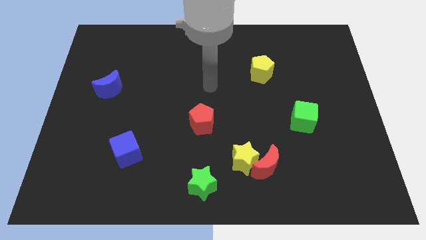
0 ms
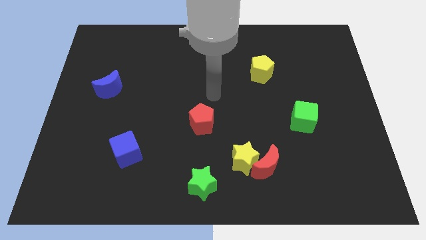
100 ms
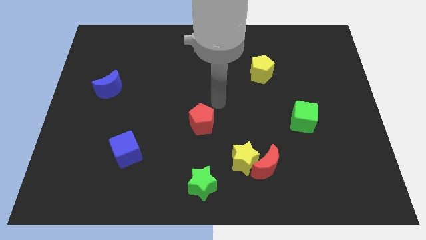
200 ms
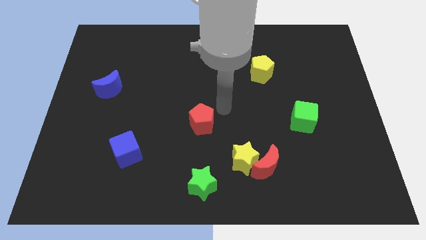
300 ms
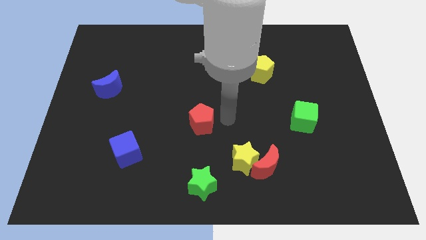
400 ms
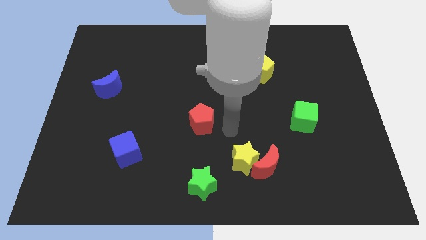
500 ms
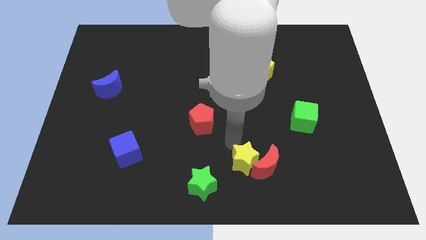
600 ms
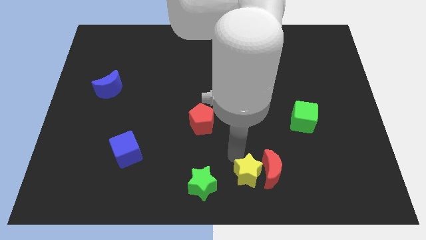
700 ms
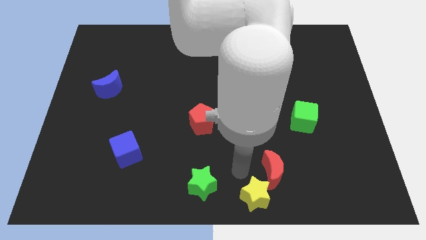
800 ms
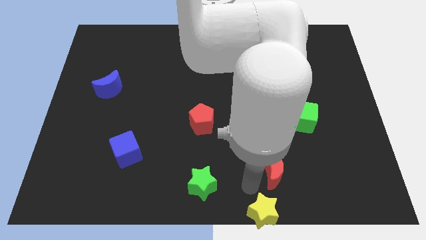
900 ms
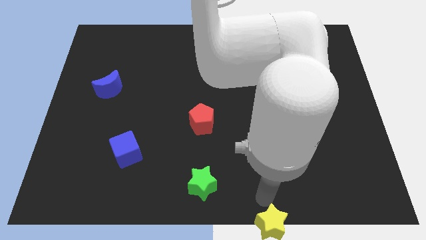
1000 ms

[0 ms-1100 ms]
pull the red moon apart from the yellow star

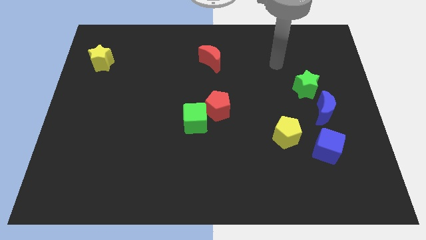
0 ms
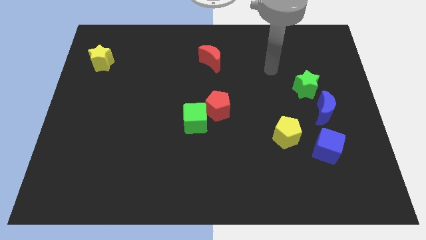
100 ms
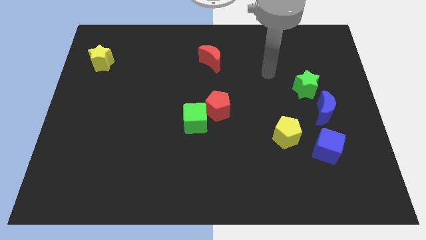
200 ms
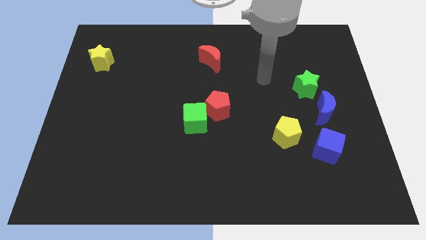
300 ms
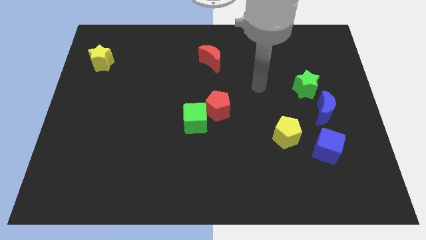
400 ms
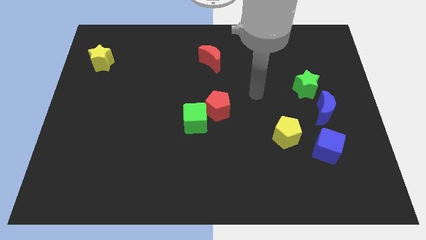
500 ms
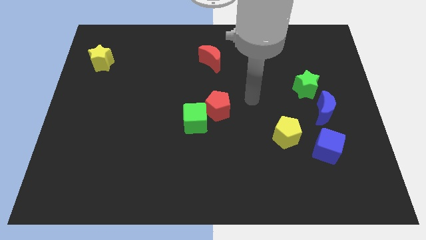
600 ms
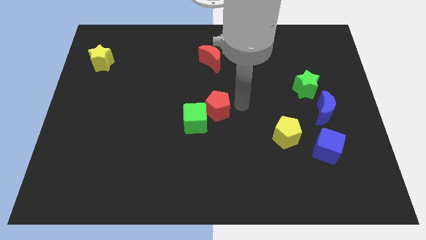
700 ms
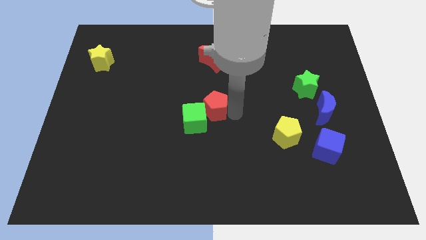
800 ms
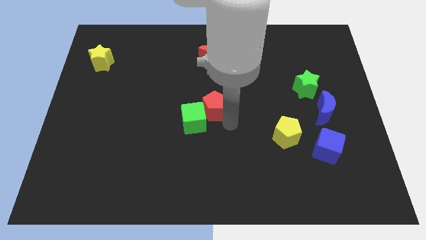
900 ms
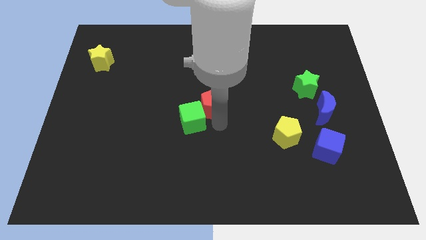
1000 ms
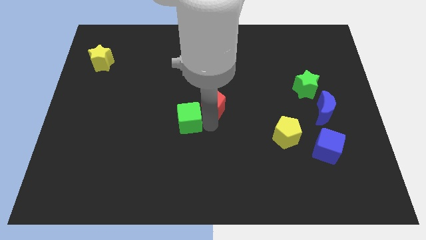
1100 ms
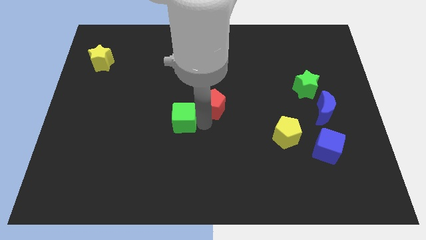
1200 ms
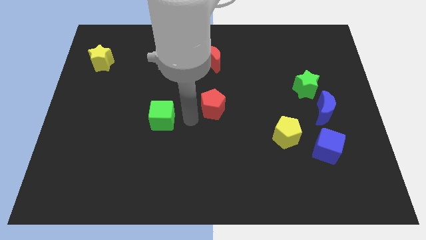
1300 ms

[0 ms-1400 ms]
separate the red pentagon from the green cube

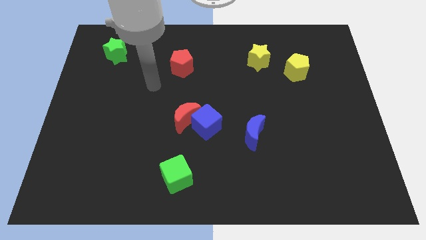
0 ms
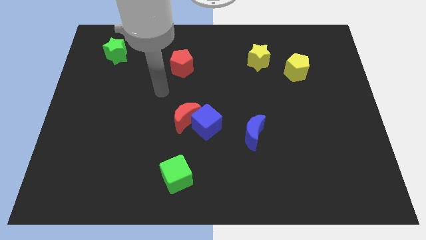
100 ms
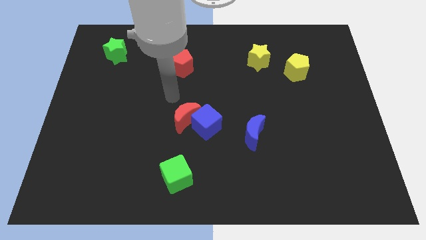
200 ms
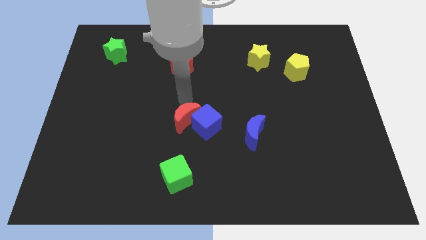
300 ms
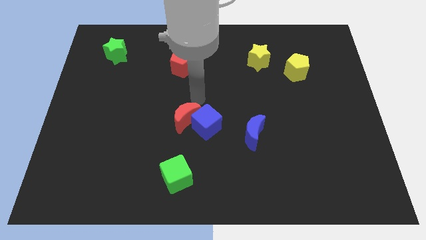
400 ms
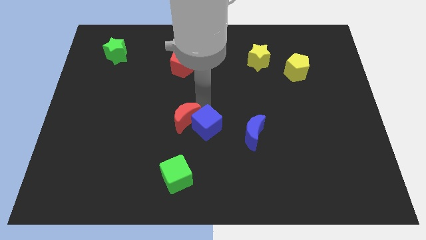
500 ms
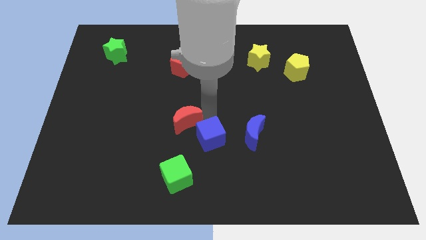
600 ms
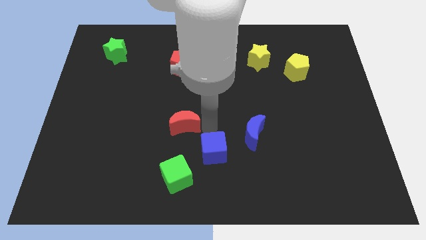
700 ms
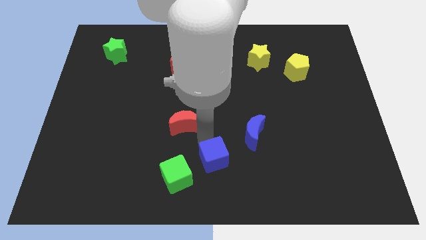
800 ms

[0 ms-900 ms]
pull the red moon apart from the blue cube

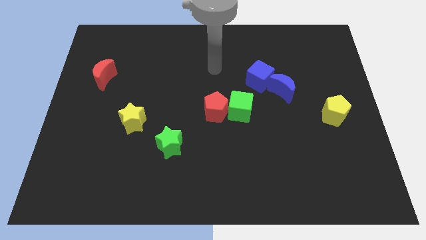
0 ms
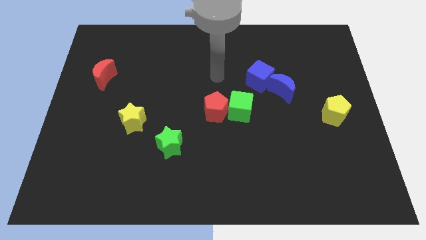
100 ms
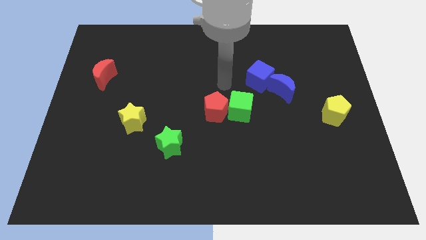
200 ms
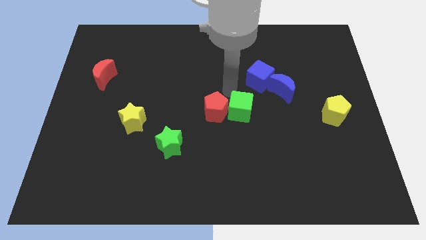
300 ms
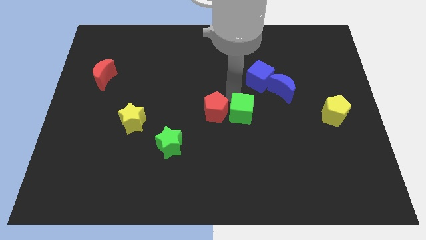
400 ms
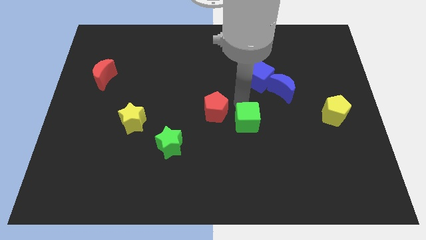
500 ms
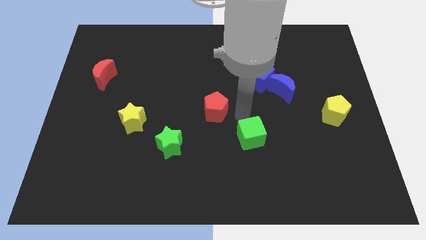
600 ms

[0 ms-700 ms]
move the red pentagon away from the green cube

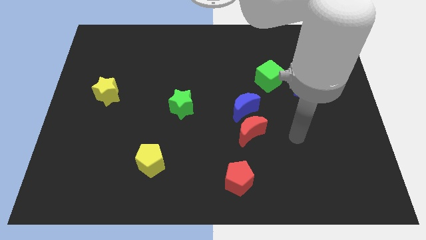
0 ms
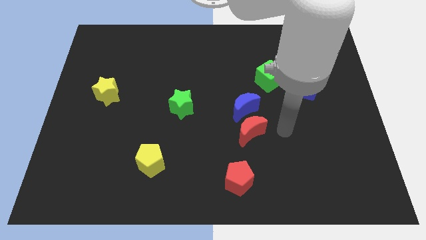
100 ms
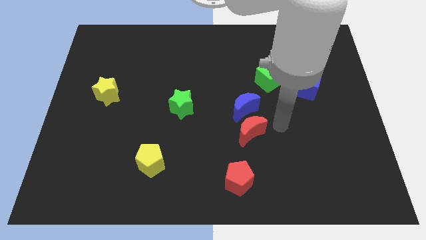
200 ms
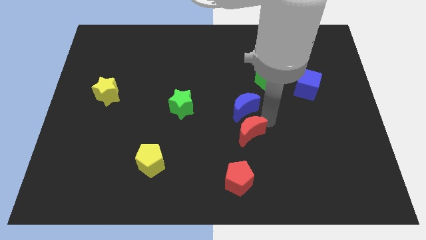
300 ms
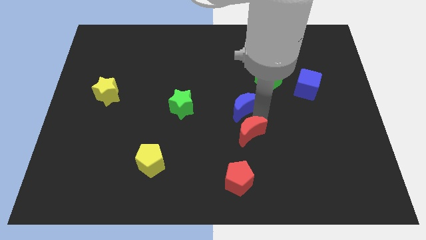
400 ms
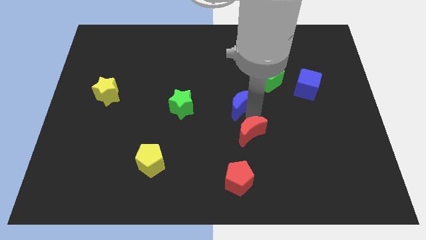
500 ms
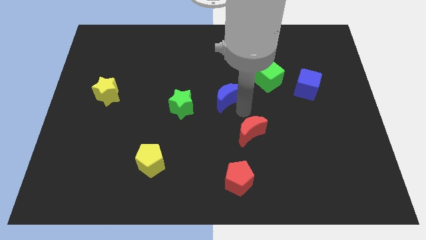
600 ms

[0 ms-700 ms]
separate the red moon from the blue moon

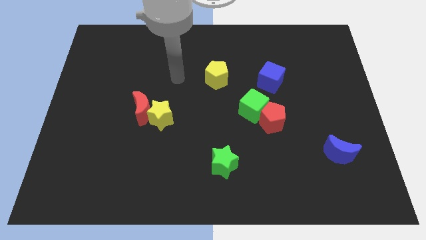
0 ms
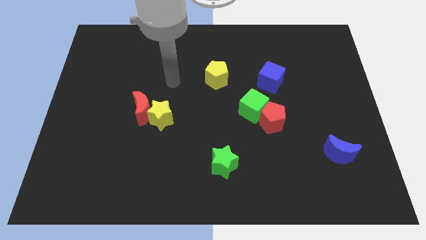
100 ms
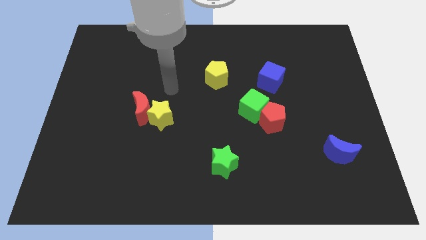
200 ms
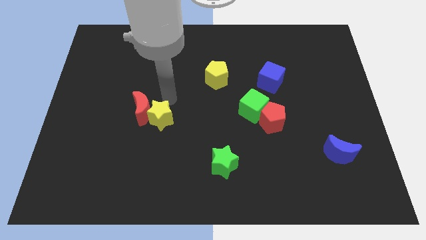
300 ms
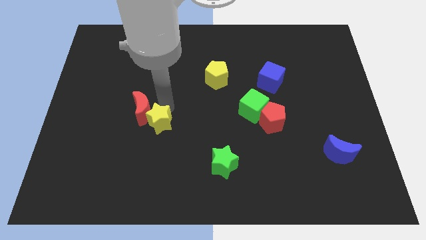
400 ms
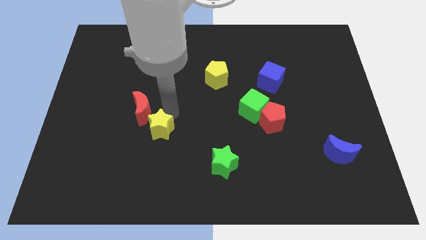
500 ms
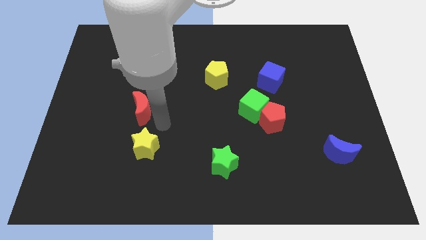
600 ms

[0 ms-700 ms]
separate the red moon from the yellow star

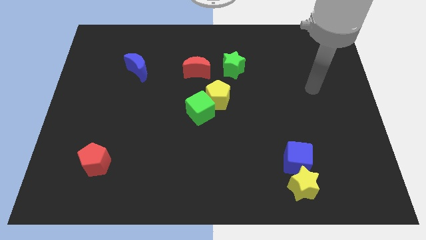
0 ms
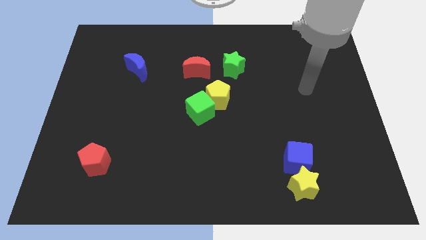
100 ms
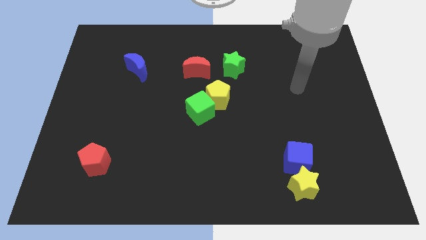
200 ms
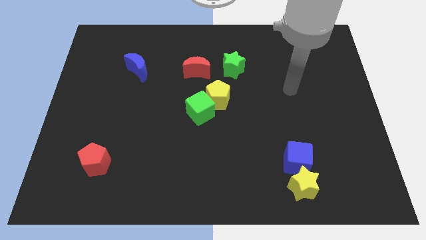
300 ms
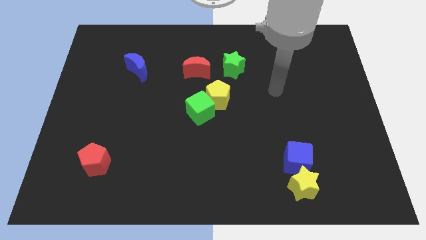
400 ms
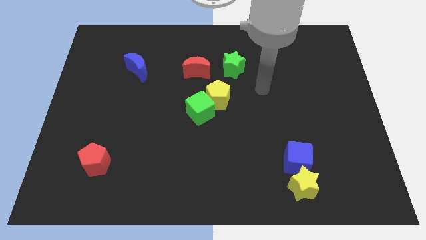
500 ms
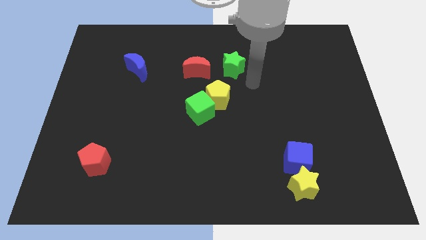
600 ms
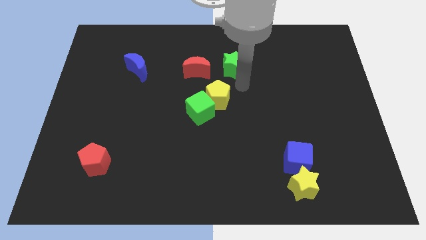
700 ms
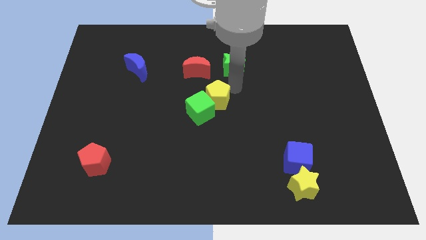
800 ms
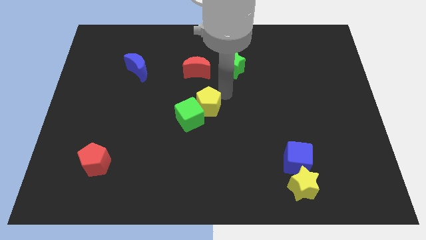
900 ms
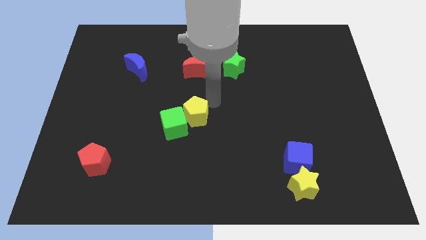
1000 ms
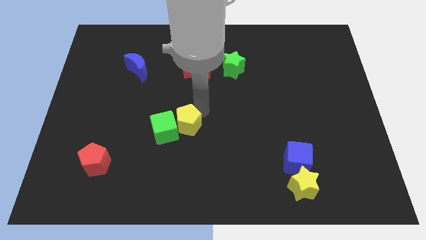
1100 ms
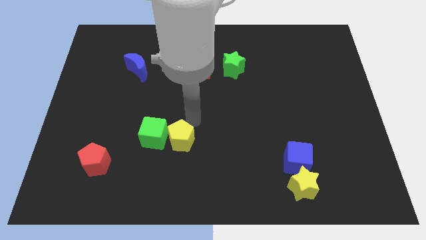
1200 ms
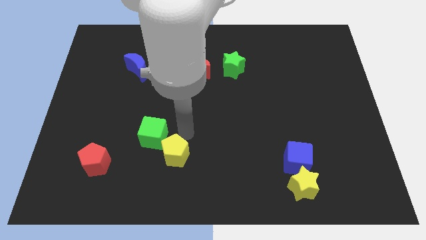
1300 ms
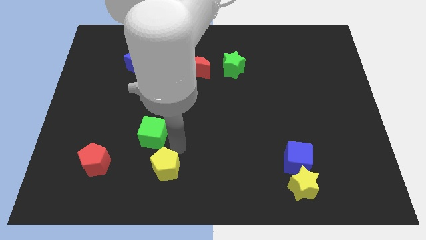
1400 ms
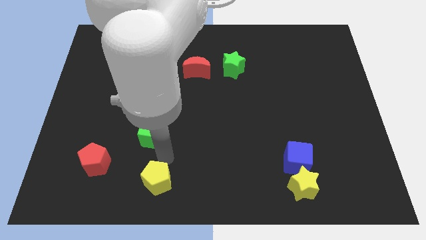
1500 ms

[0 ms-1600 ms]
move the green cube away from the yellow pentagon

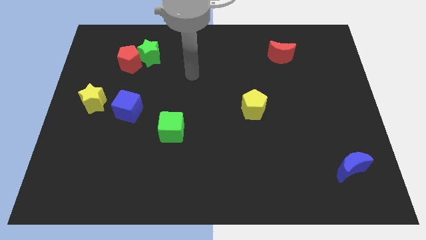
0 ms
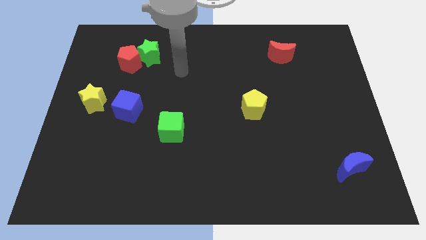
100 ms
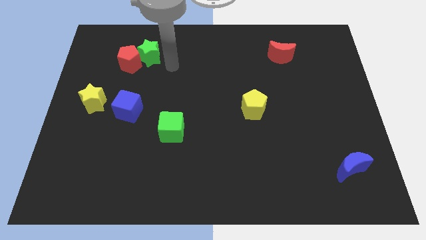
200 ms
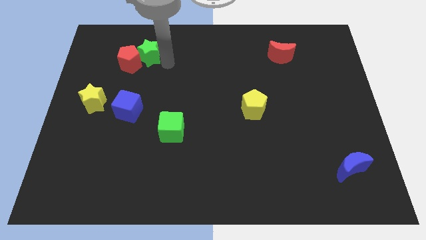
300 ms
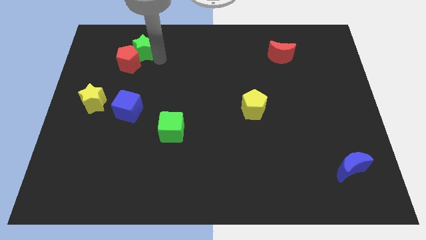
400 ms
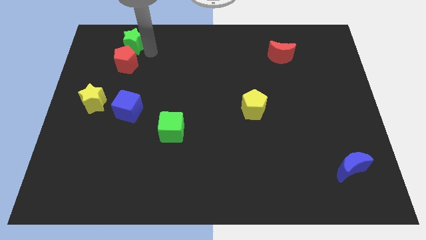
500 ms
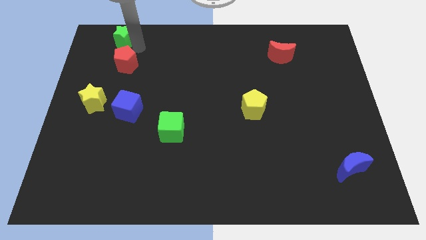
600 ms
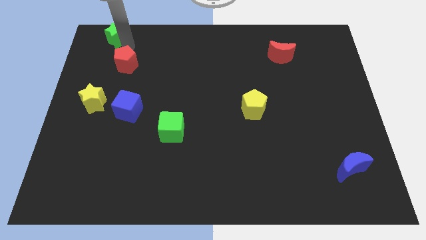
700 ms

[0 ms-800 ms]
separate the red pentagon from the green star

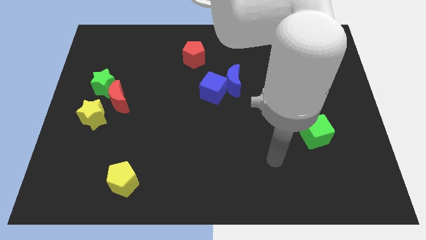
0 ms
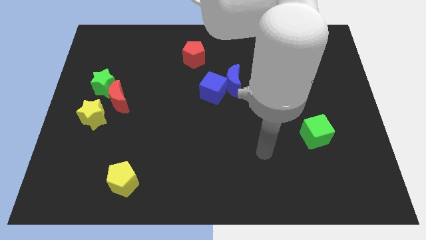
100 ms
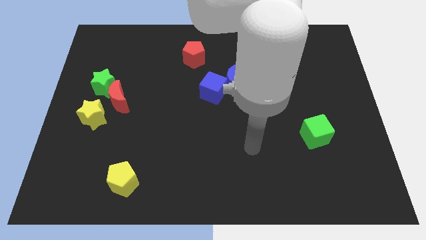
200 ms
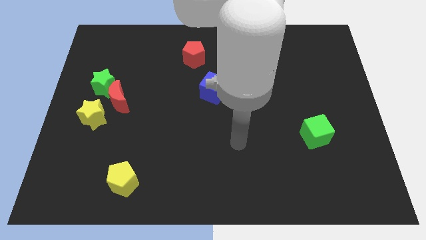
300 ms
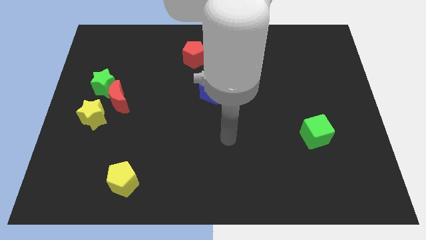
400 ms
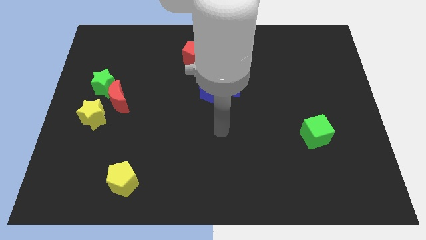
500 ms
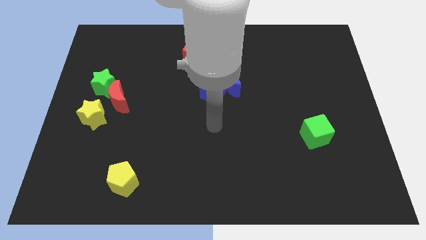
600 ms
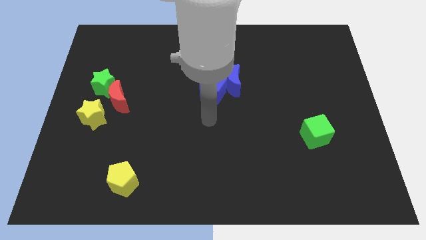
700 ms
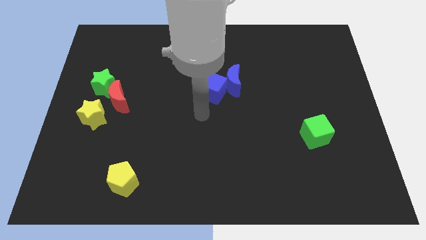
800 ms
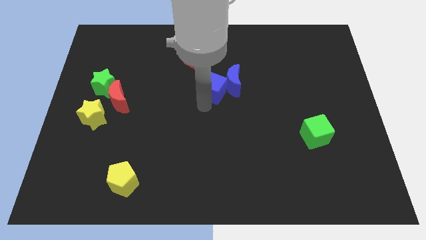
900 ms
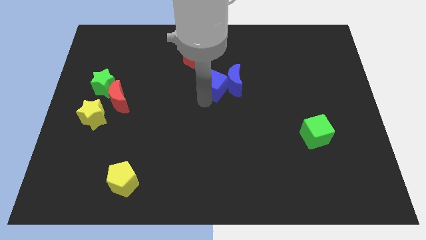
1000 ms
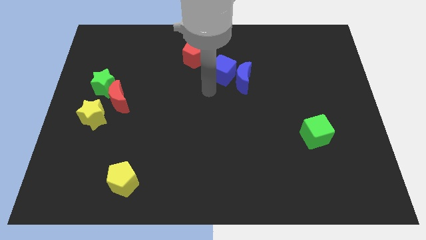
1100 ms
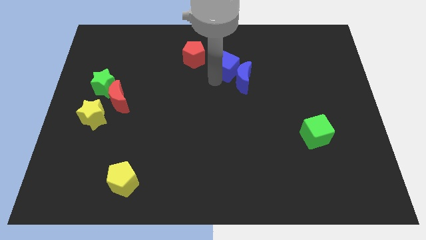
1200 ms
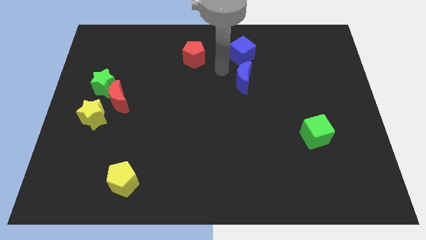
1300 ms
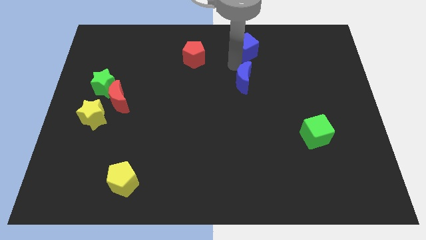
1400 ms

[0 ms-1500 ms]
pull the blue moon apart from the blue cube
